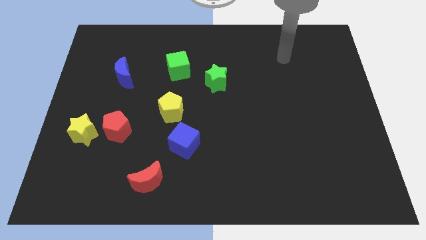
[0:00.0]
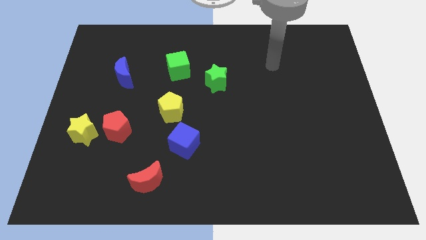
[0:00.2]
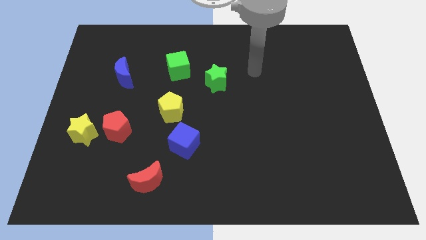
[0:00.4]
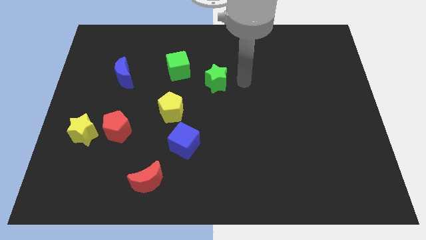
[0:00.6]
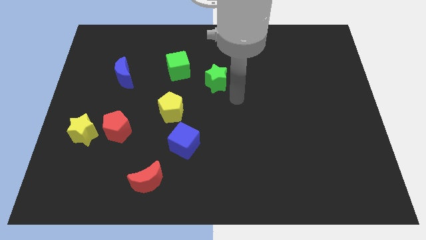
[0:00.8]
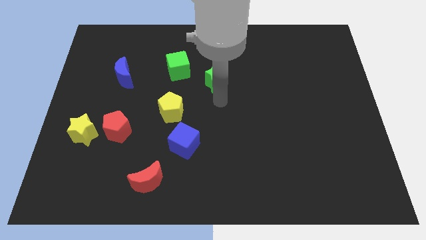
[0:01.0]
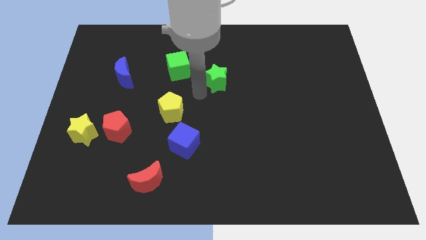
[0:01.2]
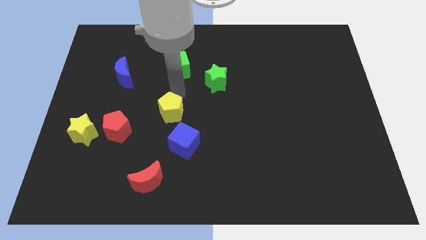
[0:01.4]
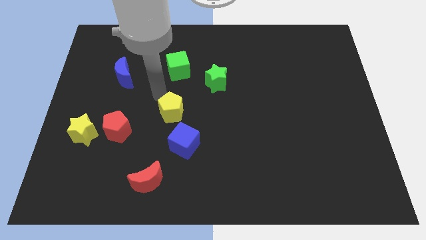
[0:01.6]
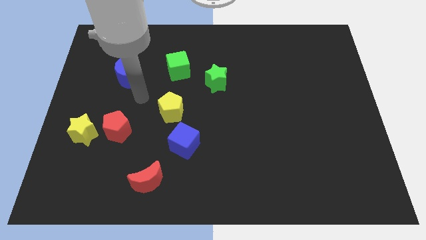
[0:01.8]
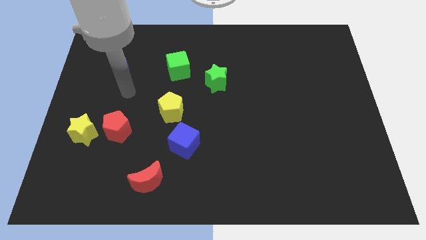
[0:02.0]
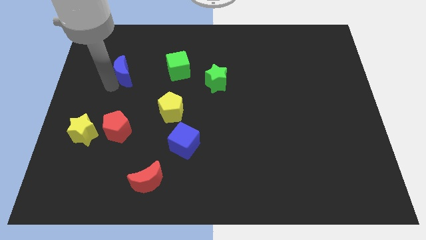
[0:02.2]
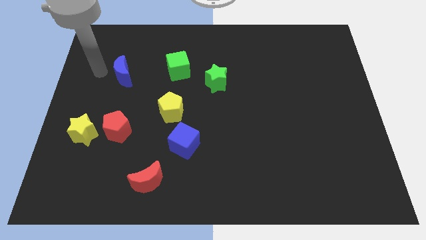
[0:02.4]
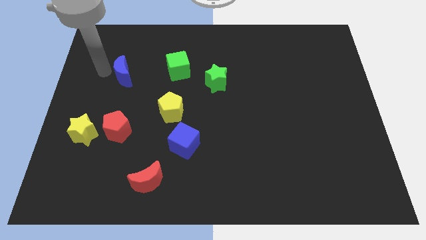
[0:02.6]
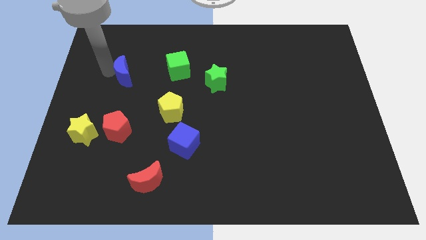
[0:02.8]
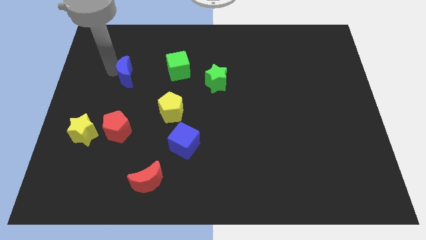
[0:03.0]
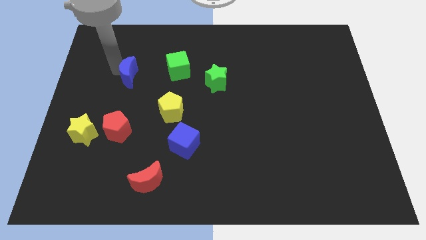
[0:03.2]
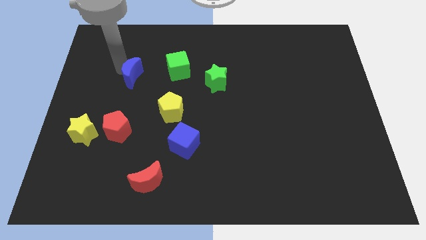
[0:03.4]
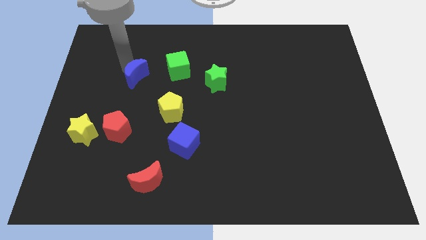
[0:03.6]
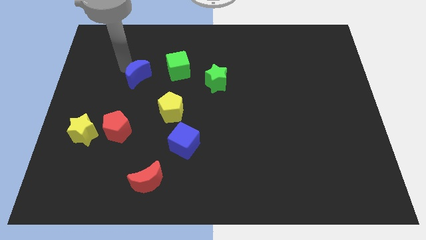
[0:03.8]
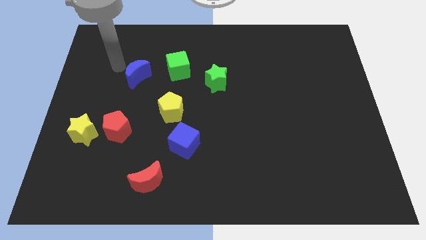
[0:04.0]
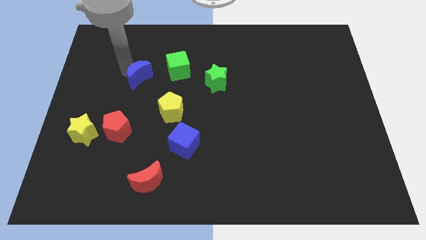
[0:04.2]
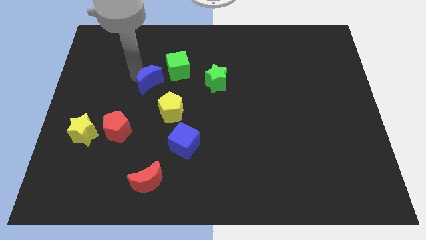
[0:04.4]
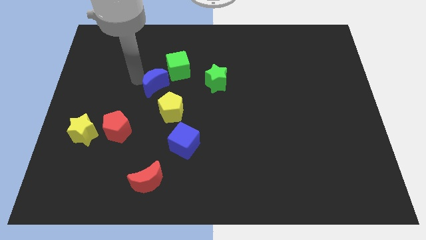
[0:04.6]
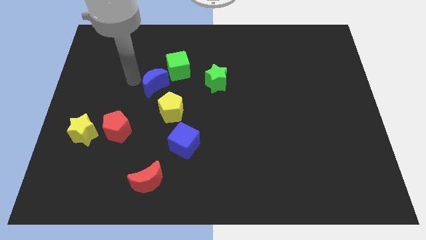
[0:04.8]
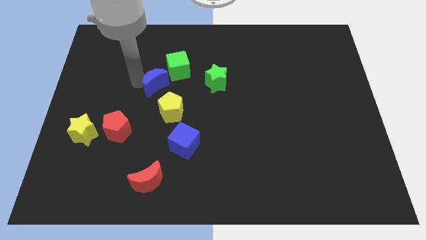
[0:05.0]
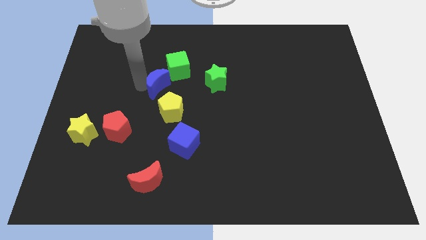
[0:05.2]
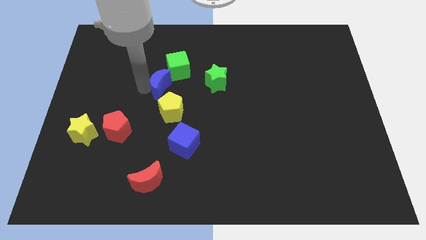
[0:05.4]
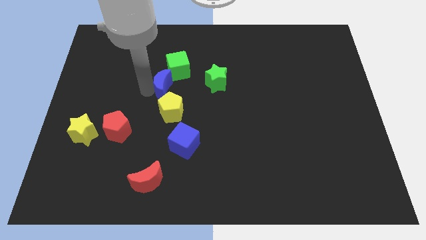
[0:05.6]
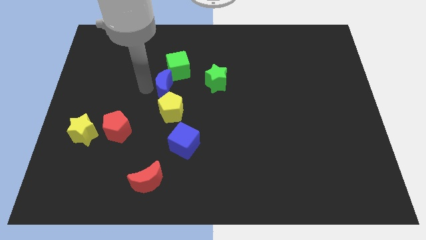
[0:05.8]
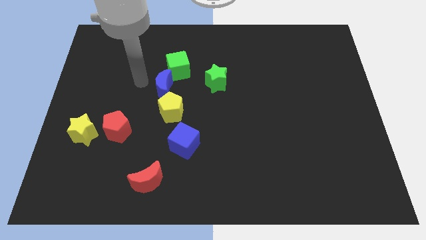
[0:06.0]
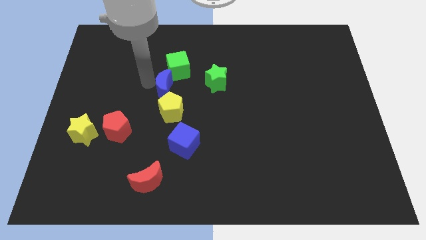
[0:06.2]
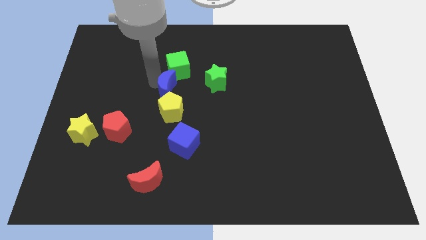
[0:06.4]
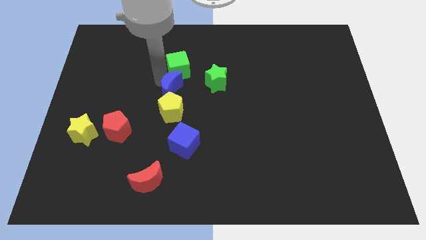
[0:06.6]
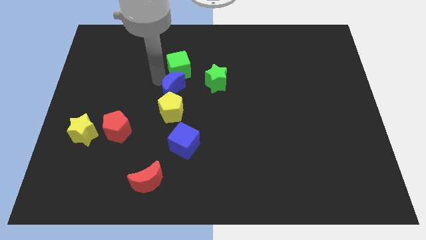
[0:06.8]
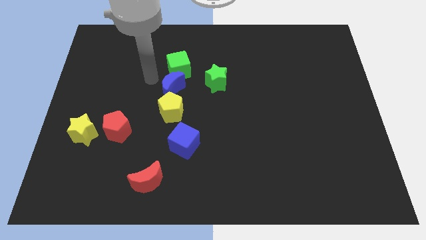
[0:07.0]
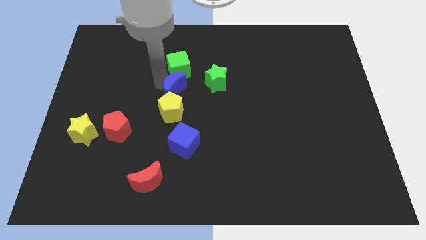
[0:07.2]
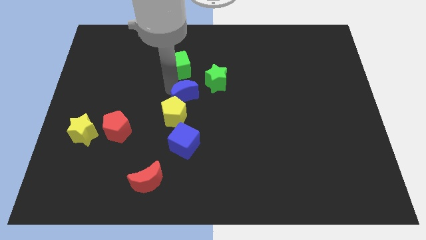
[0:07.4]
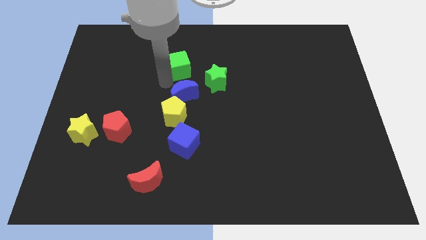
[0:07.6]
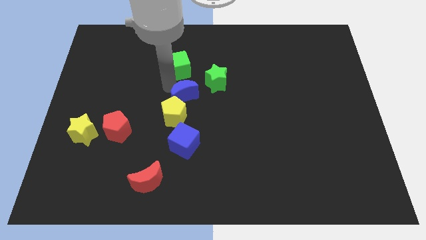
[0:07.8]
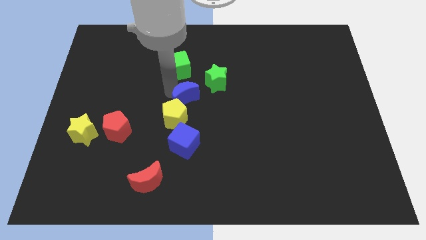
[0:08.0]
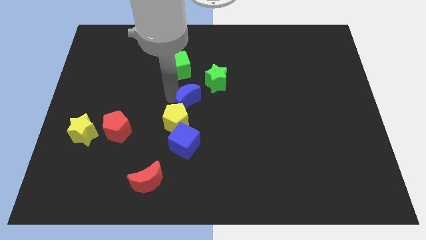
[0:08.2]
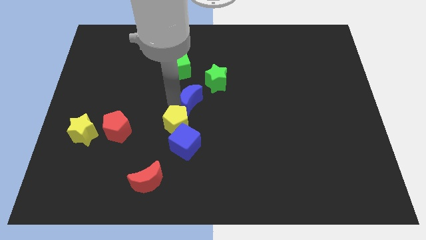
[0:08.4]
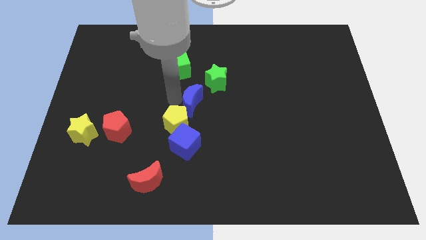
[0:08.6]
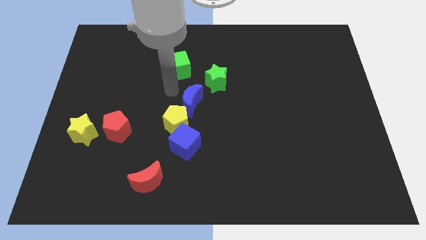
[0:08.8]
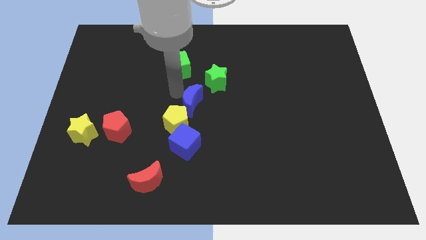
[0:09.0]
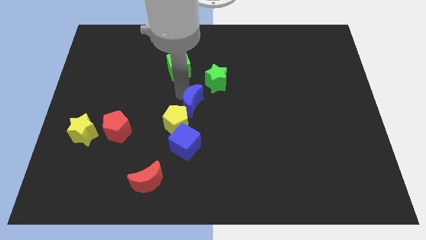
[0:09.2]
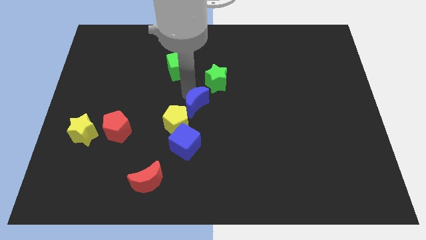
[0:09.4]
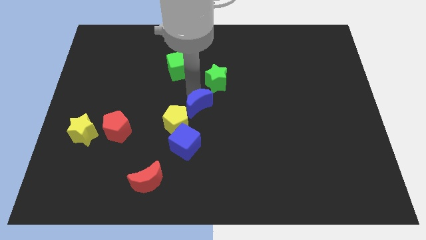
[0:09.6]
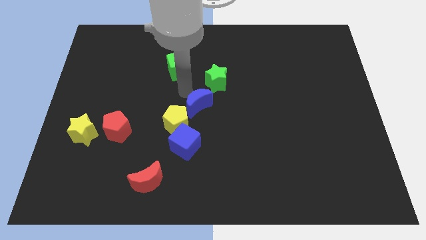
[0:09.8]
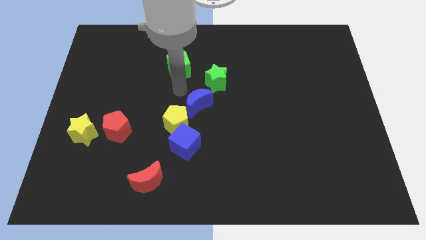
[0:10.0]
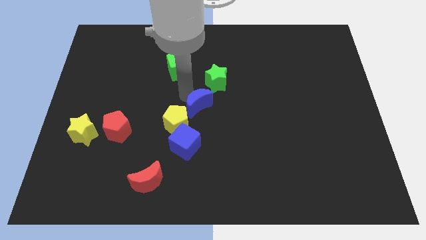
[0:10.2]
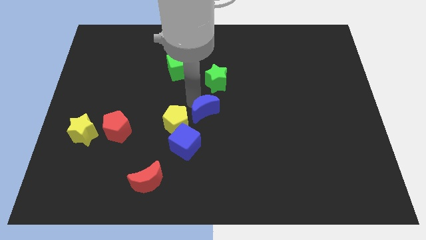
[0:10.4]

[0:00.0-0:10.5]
slide the blue moon downwards and to the right diagonally

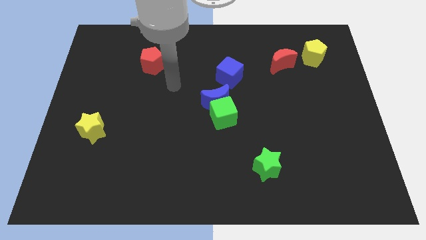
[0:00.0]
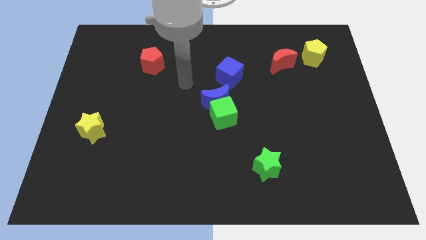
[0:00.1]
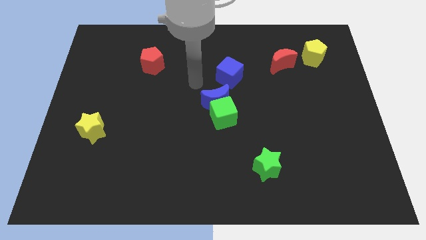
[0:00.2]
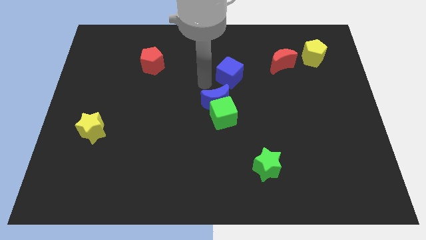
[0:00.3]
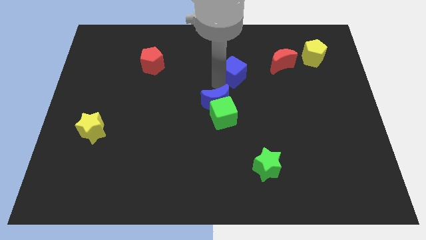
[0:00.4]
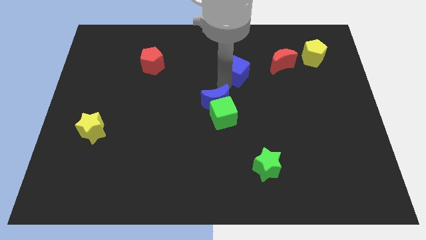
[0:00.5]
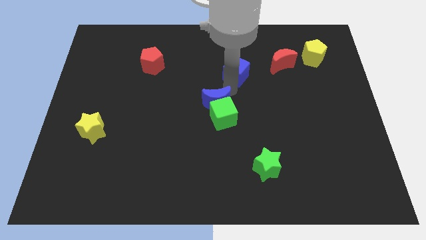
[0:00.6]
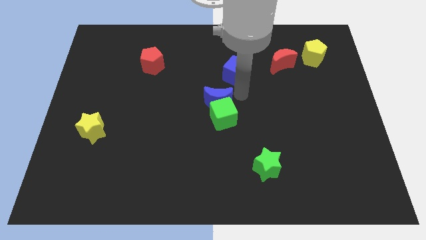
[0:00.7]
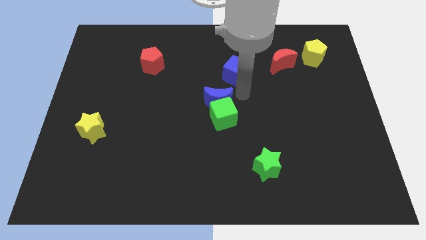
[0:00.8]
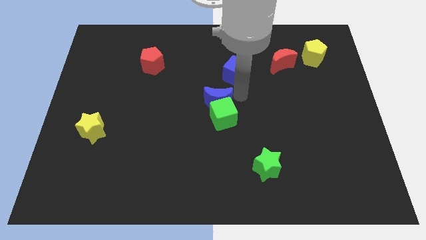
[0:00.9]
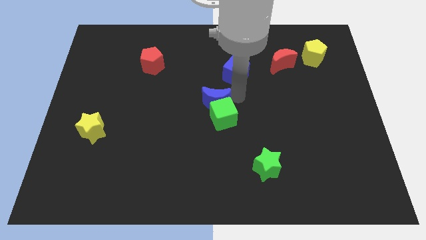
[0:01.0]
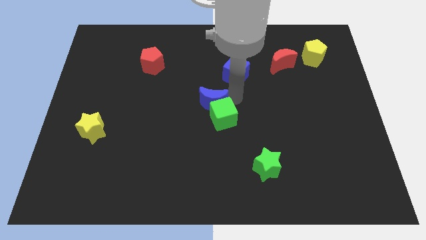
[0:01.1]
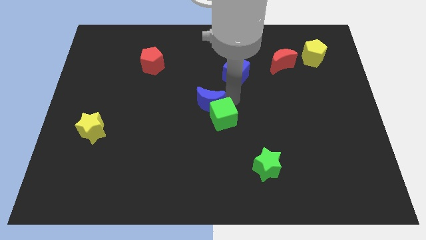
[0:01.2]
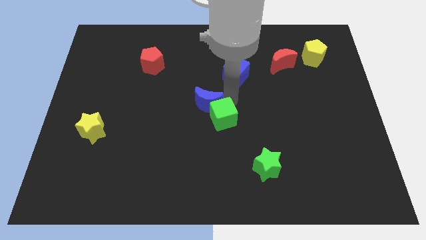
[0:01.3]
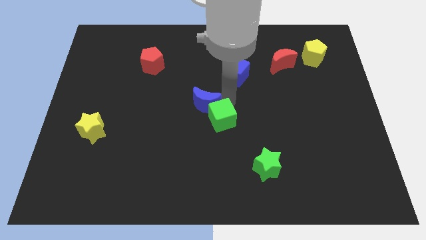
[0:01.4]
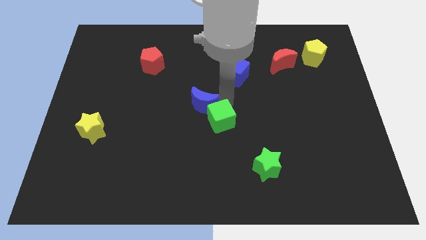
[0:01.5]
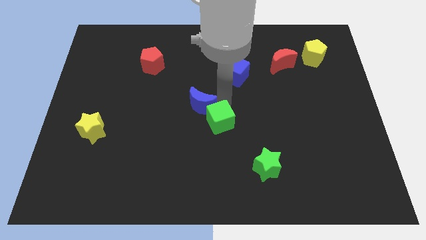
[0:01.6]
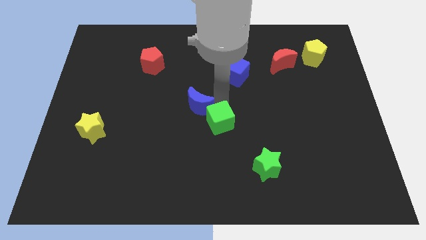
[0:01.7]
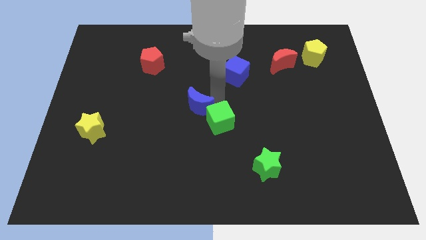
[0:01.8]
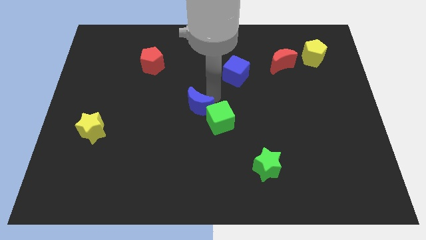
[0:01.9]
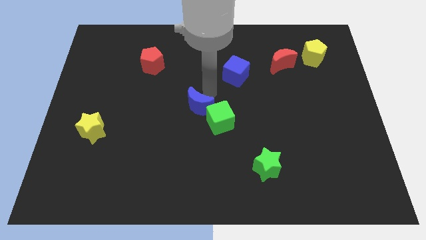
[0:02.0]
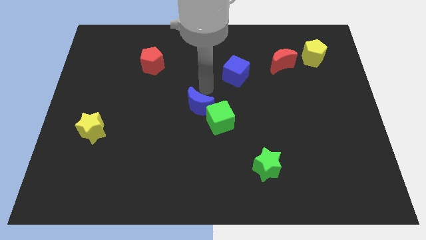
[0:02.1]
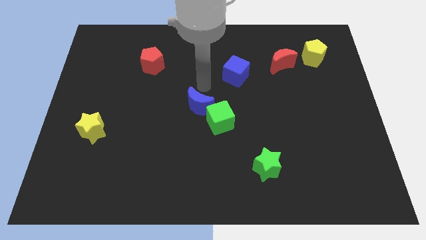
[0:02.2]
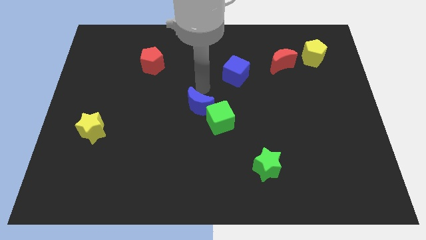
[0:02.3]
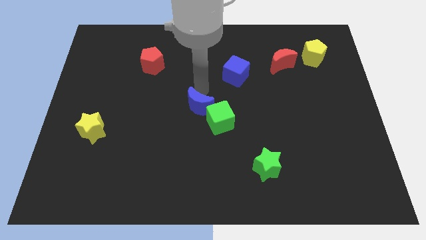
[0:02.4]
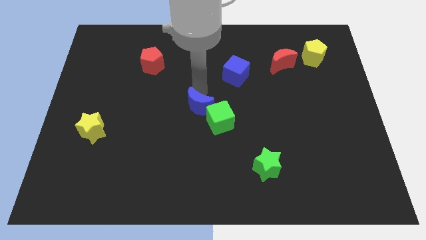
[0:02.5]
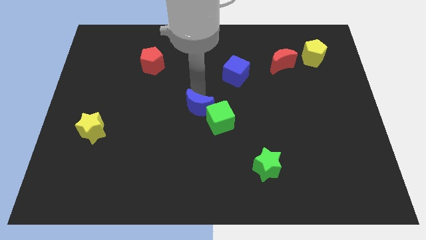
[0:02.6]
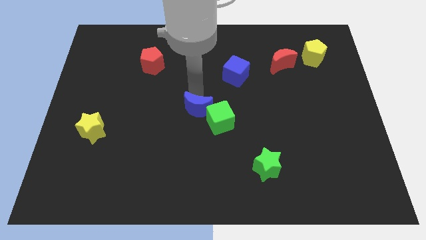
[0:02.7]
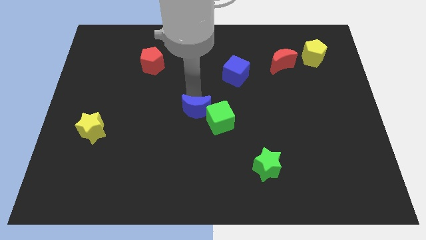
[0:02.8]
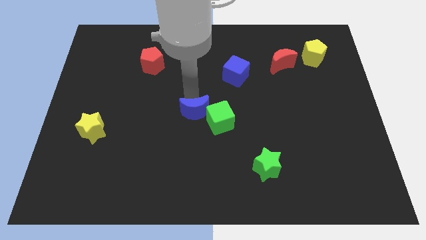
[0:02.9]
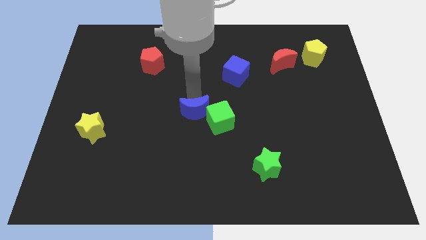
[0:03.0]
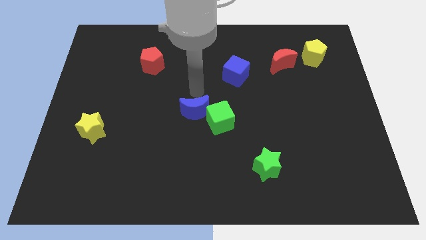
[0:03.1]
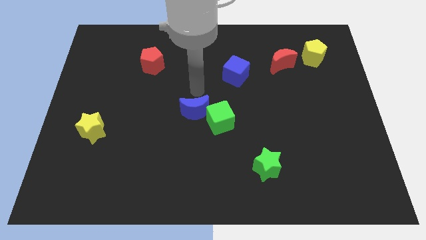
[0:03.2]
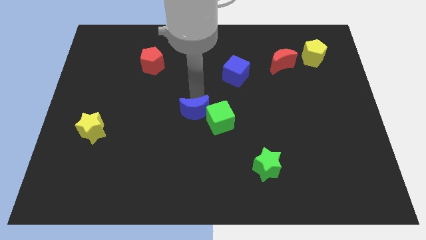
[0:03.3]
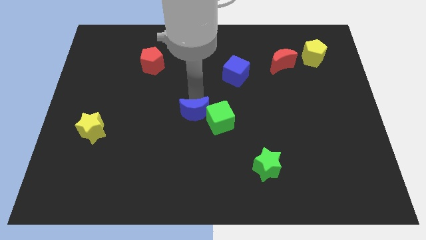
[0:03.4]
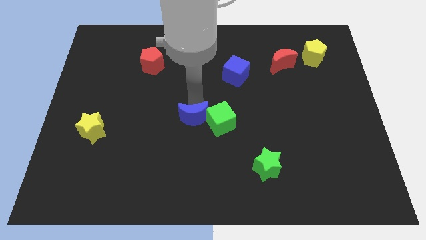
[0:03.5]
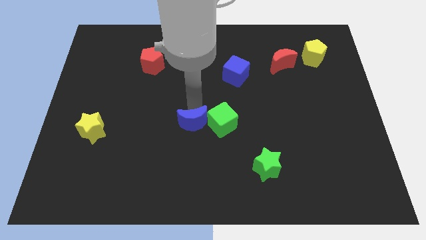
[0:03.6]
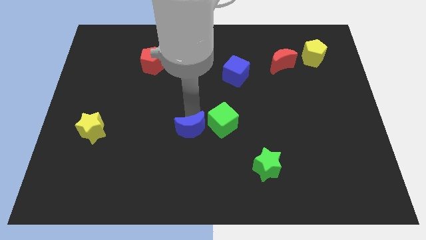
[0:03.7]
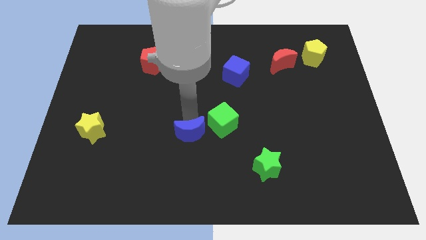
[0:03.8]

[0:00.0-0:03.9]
push the blue moon a bit down
